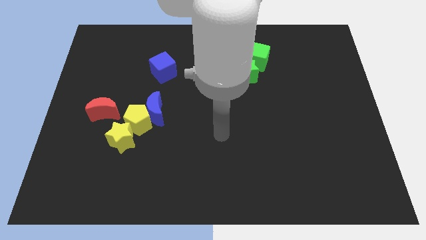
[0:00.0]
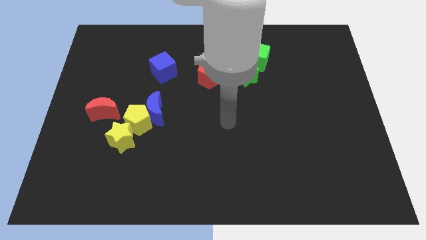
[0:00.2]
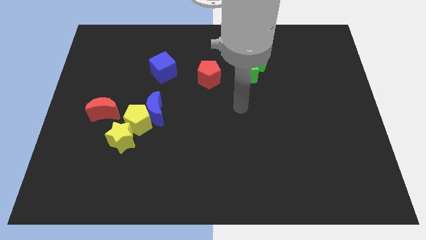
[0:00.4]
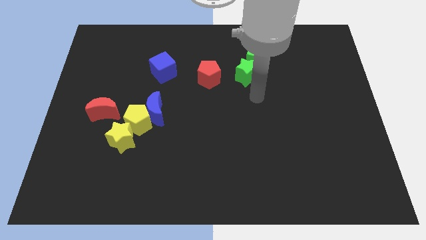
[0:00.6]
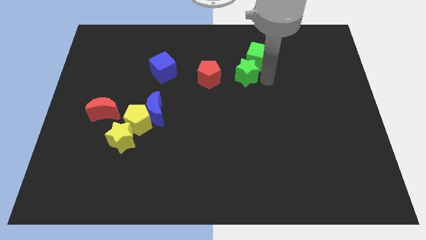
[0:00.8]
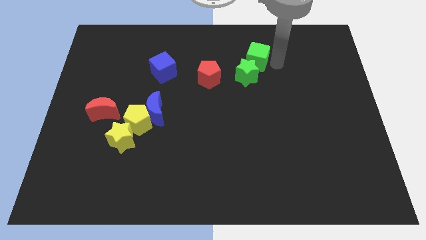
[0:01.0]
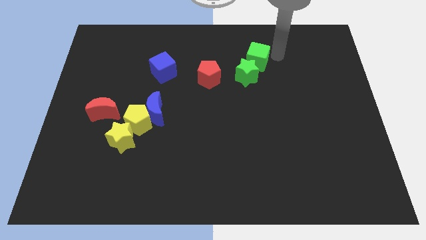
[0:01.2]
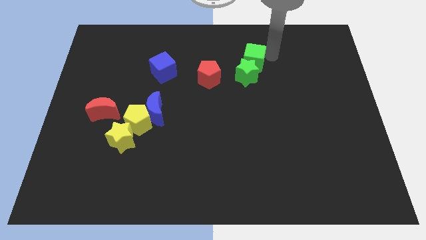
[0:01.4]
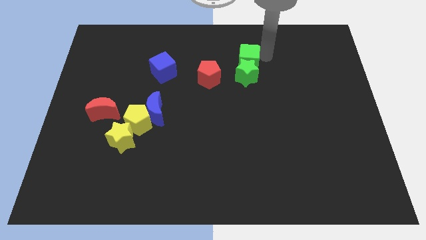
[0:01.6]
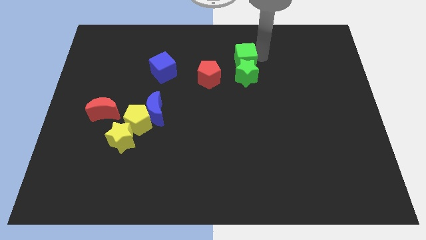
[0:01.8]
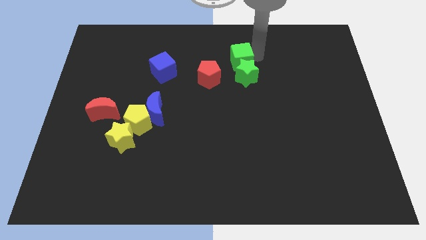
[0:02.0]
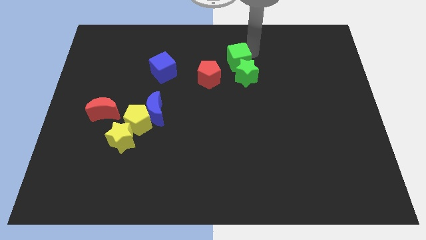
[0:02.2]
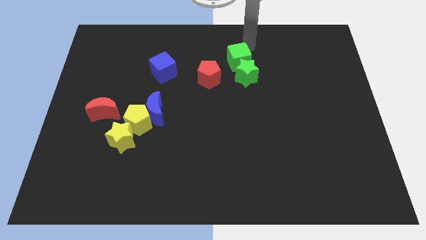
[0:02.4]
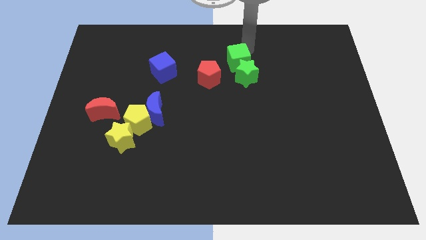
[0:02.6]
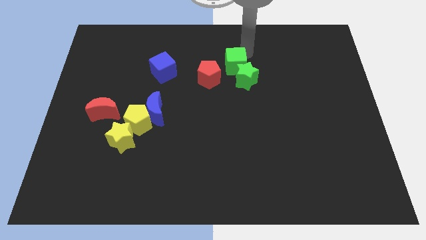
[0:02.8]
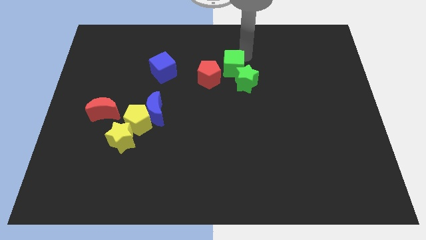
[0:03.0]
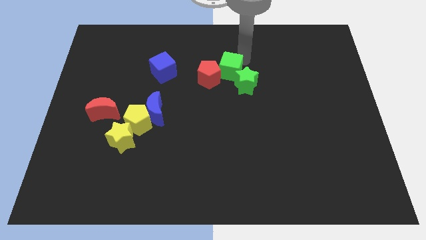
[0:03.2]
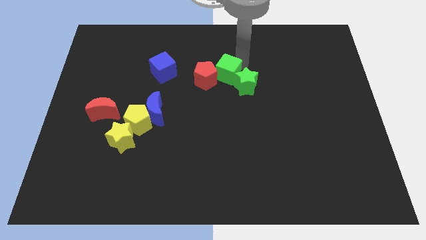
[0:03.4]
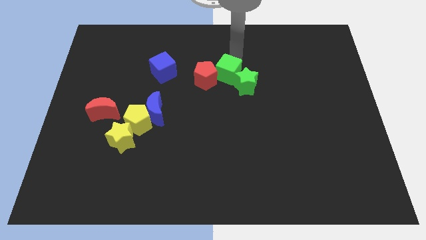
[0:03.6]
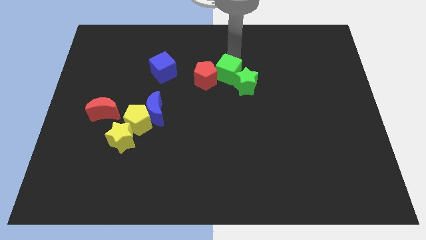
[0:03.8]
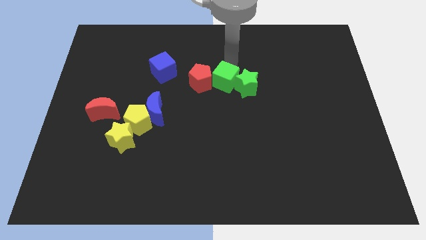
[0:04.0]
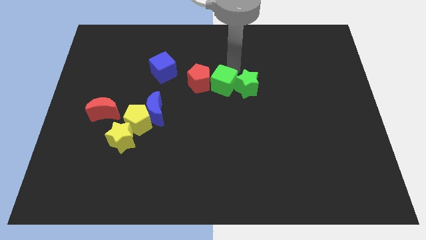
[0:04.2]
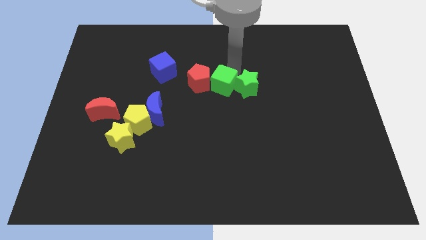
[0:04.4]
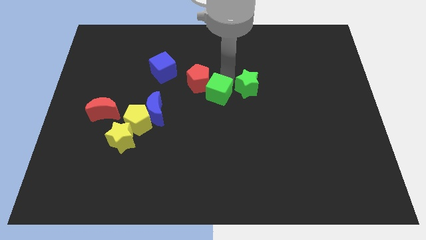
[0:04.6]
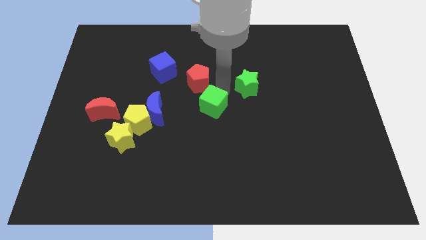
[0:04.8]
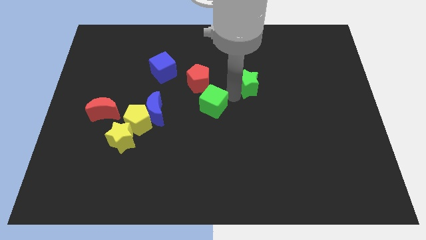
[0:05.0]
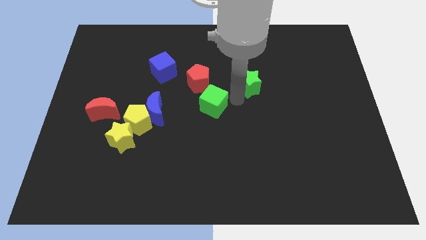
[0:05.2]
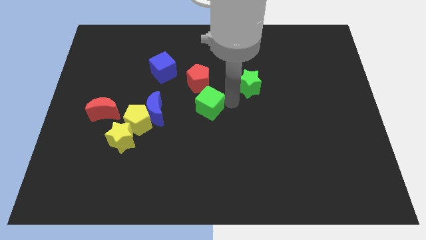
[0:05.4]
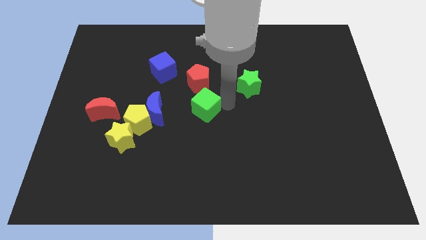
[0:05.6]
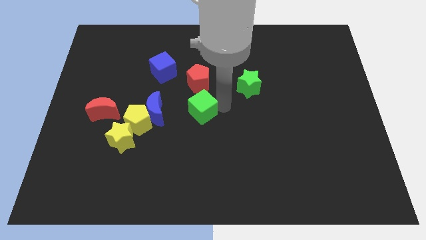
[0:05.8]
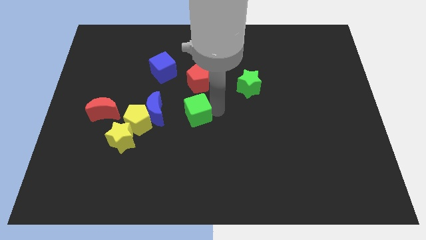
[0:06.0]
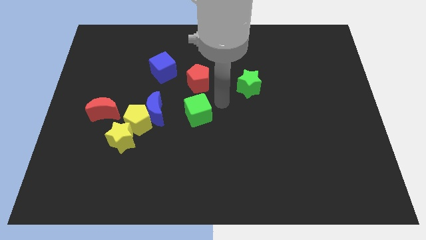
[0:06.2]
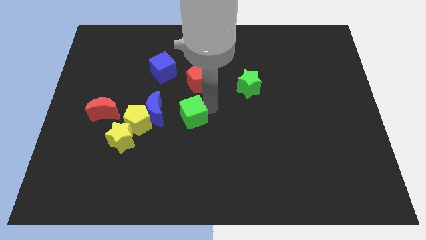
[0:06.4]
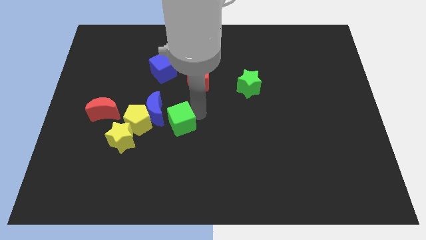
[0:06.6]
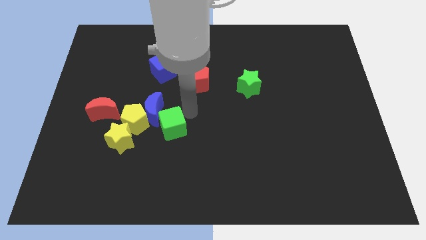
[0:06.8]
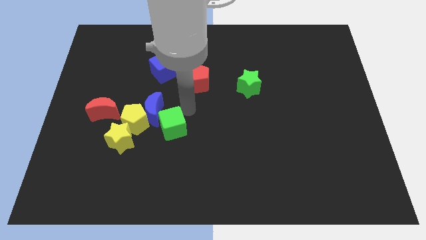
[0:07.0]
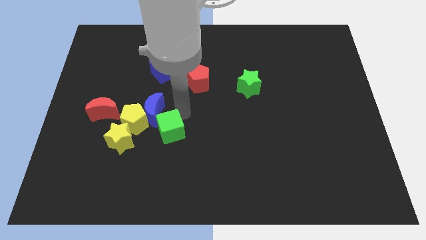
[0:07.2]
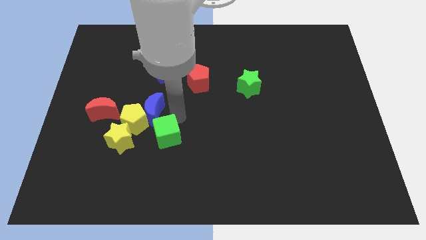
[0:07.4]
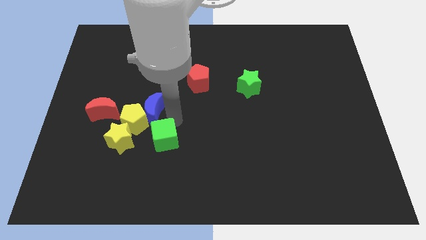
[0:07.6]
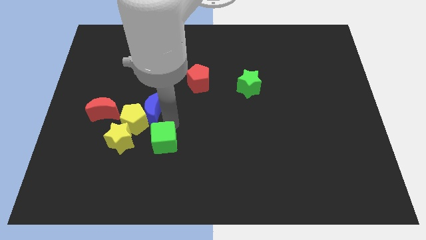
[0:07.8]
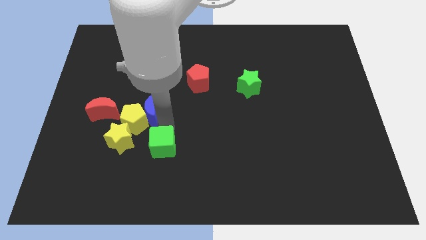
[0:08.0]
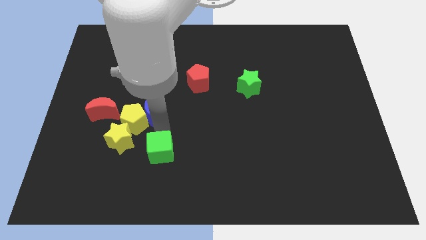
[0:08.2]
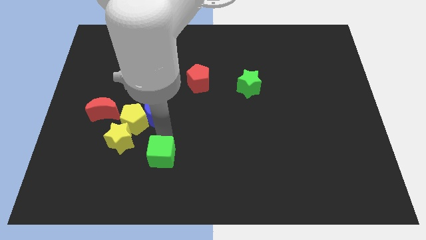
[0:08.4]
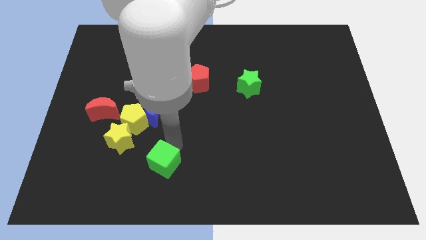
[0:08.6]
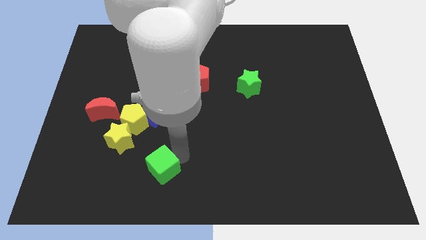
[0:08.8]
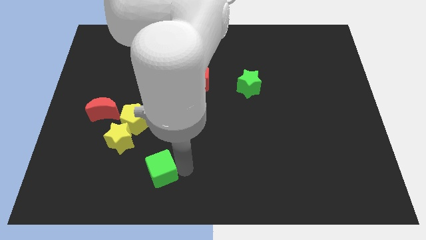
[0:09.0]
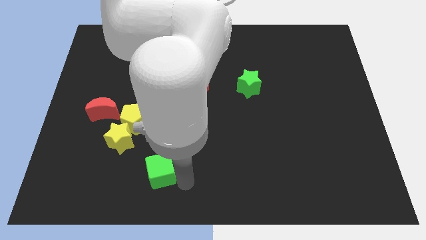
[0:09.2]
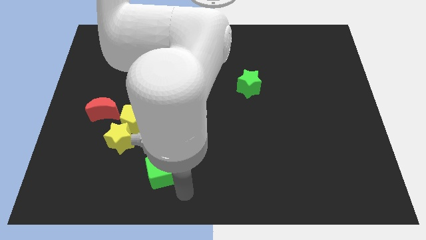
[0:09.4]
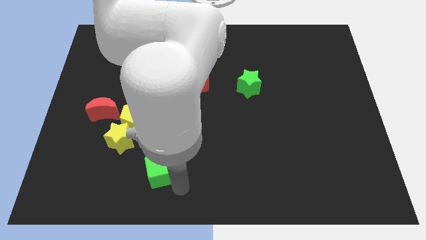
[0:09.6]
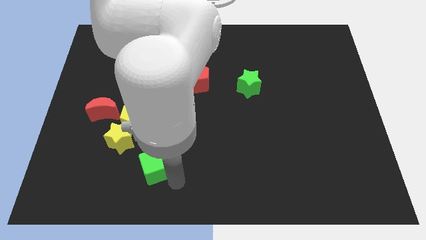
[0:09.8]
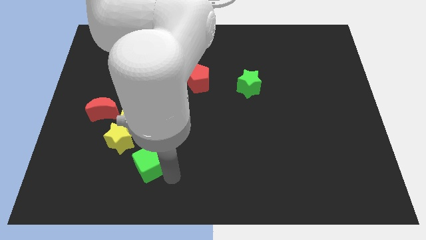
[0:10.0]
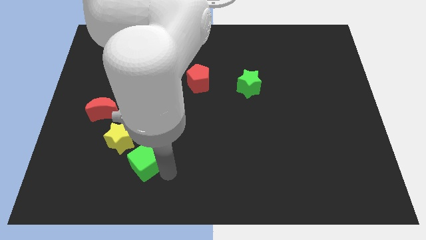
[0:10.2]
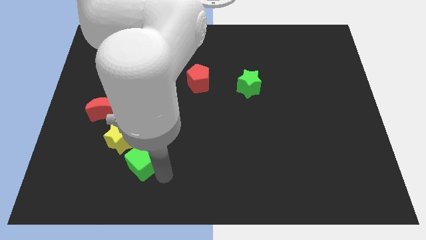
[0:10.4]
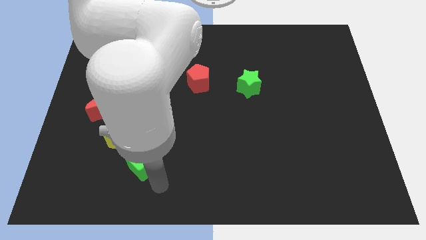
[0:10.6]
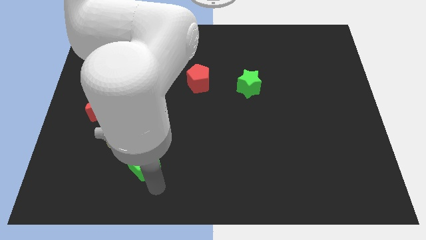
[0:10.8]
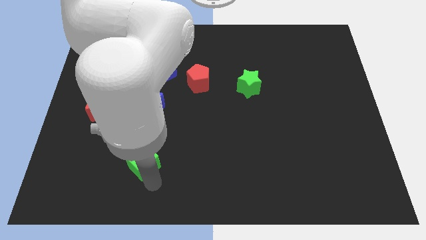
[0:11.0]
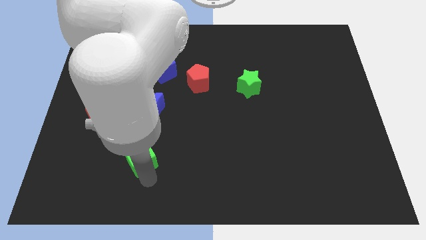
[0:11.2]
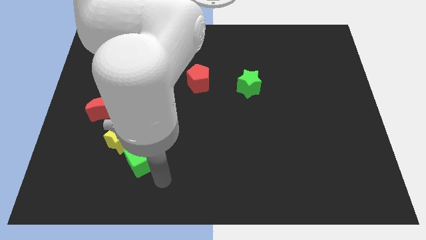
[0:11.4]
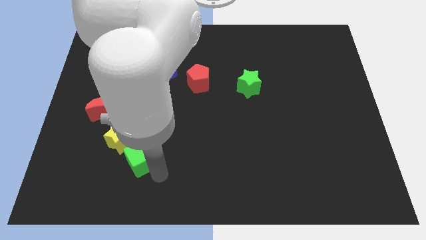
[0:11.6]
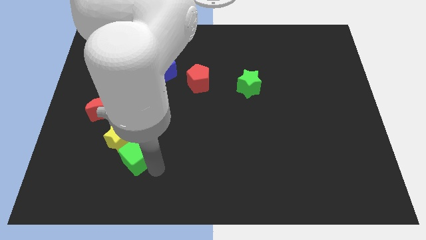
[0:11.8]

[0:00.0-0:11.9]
slide the green cube to the yellow star

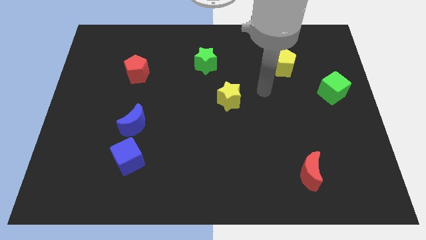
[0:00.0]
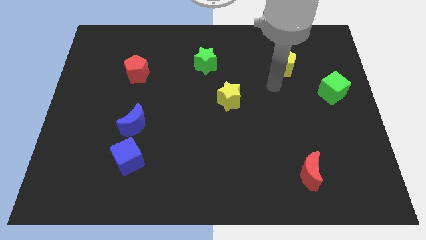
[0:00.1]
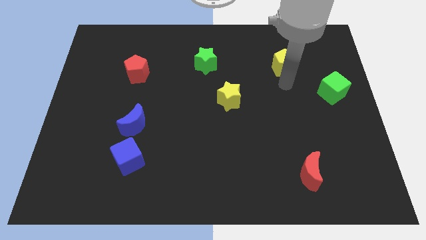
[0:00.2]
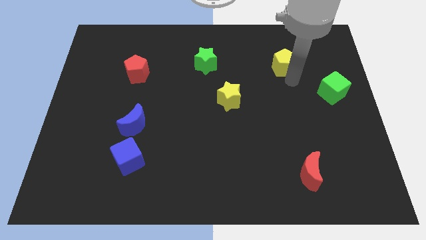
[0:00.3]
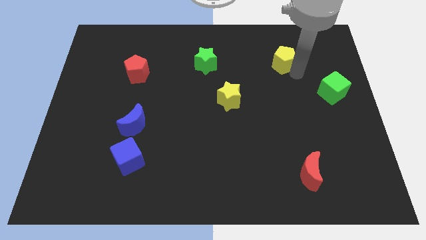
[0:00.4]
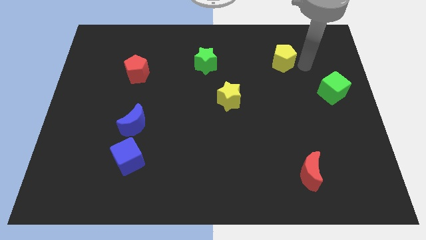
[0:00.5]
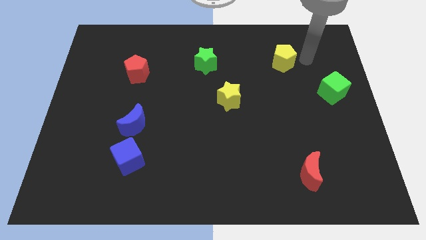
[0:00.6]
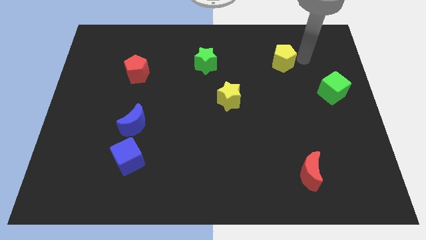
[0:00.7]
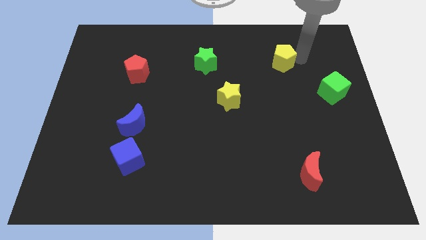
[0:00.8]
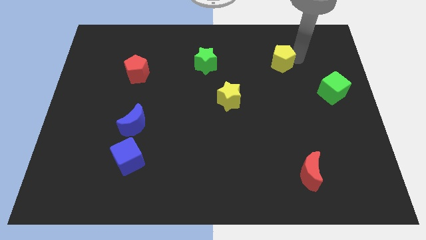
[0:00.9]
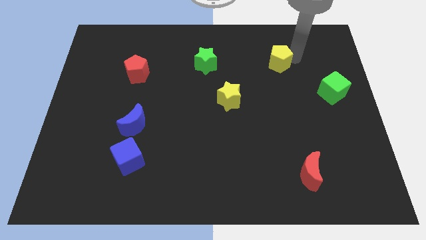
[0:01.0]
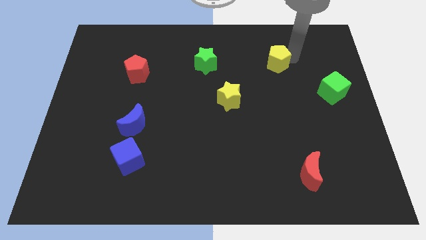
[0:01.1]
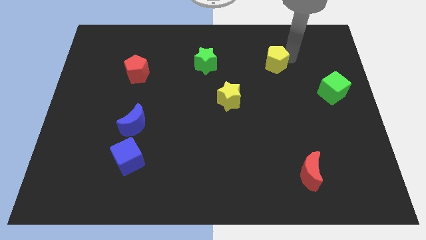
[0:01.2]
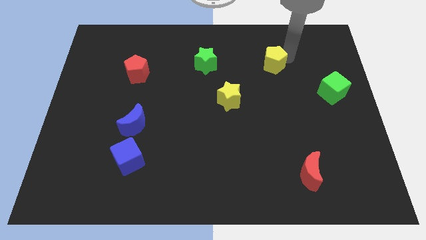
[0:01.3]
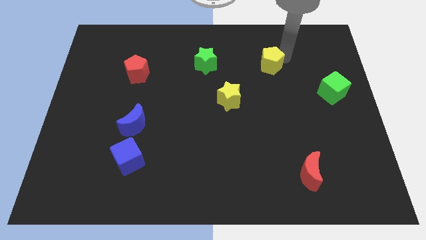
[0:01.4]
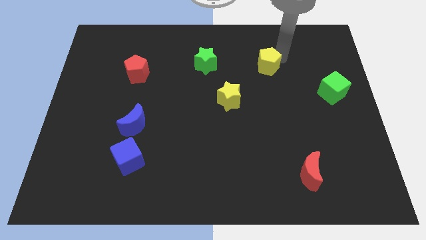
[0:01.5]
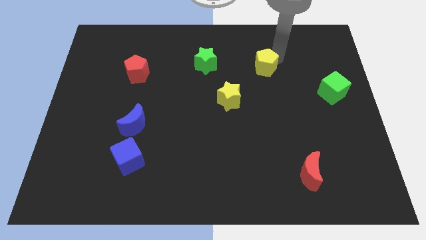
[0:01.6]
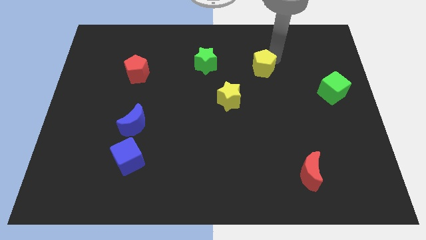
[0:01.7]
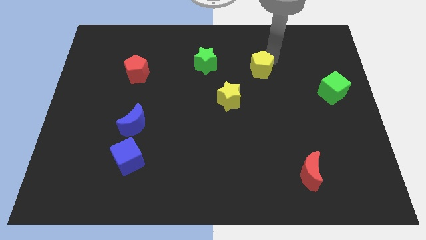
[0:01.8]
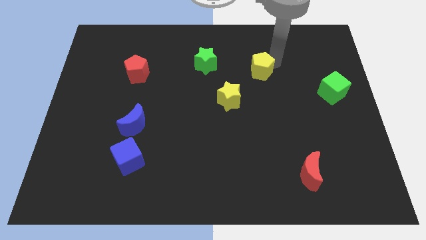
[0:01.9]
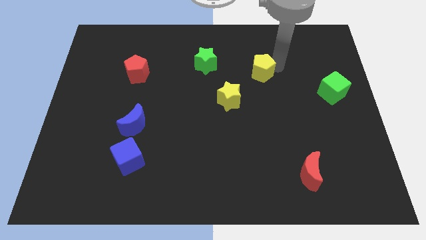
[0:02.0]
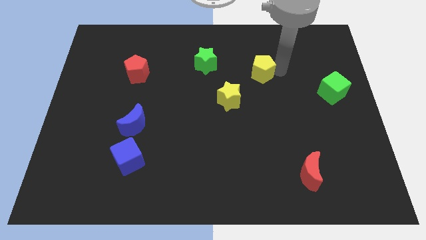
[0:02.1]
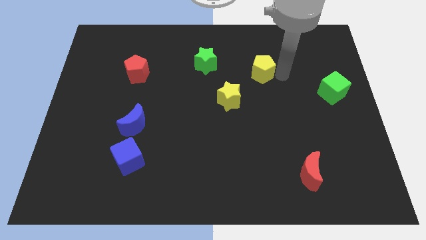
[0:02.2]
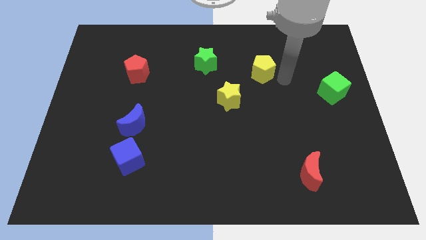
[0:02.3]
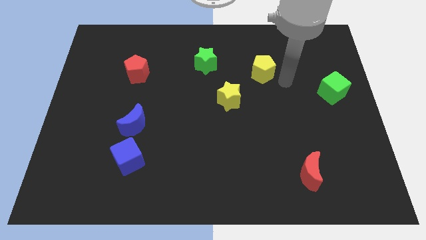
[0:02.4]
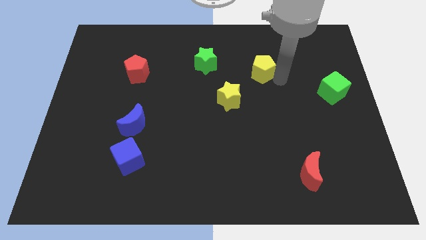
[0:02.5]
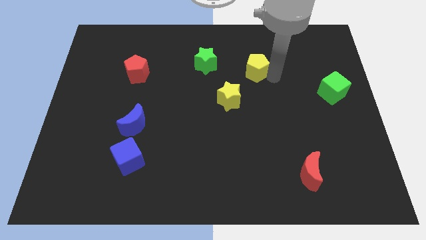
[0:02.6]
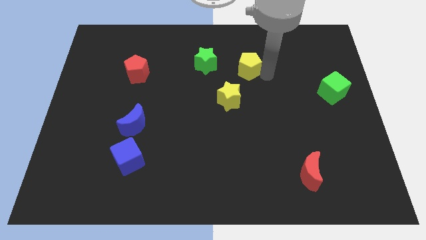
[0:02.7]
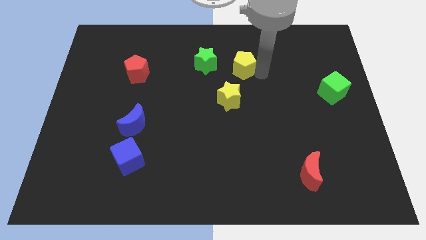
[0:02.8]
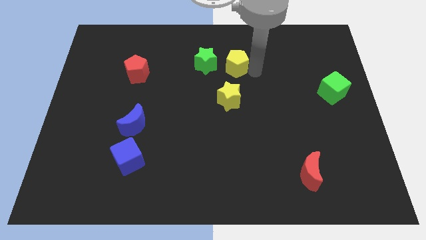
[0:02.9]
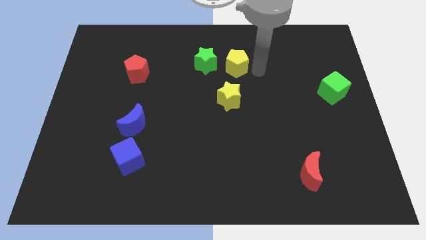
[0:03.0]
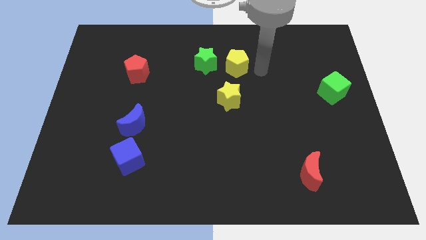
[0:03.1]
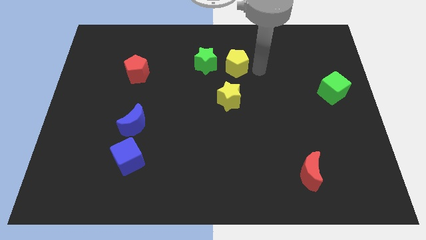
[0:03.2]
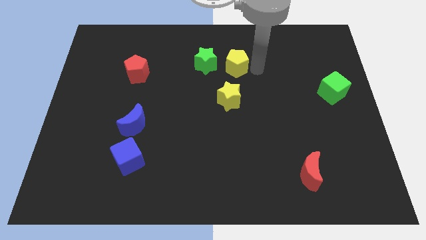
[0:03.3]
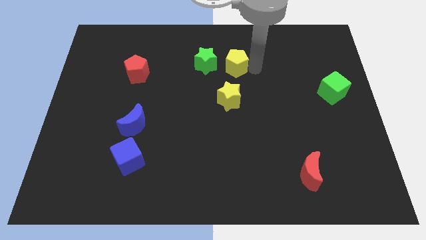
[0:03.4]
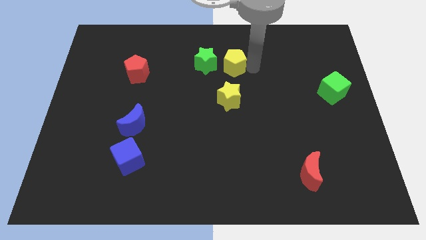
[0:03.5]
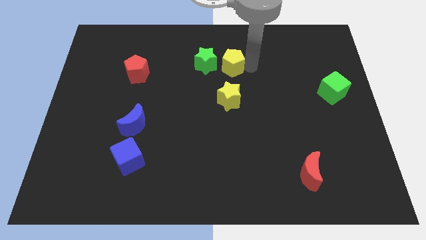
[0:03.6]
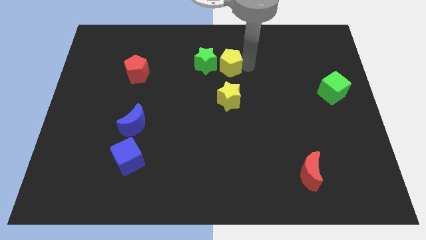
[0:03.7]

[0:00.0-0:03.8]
push the yellow pentagon next to the green star
